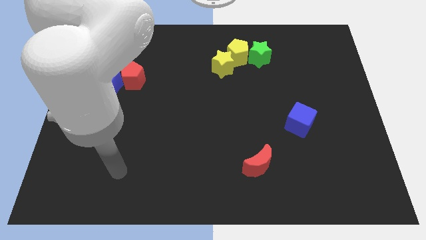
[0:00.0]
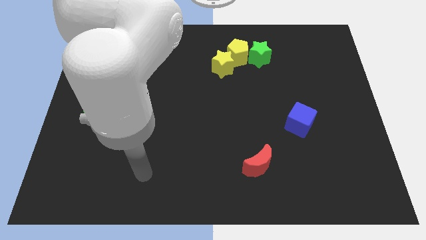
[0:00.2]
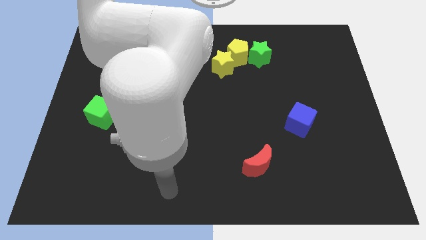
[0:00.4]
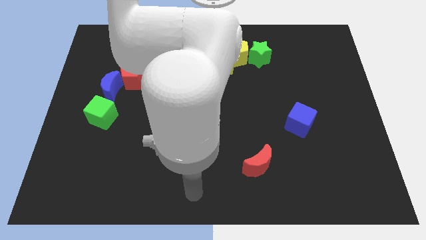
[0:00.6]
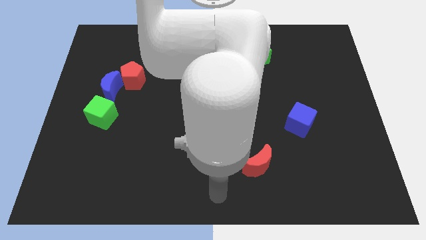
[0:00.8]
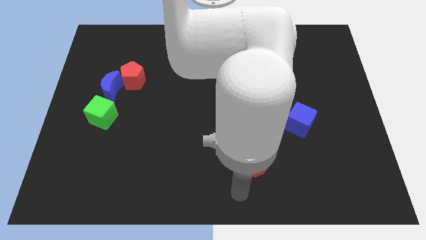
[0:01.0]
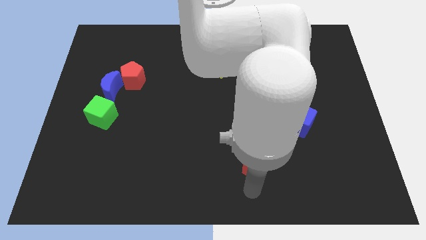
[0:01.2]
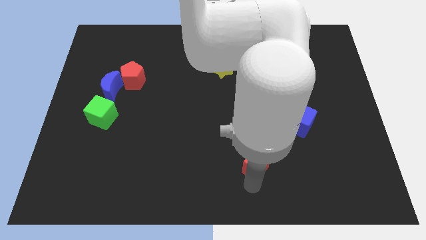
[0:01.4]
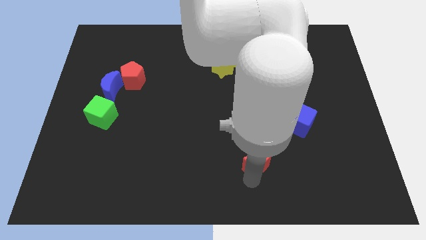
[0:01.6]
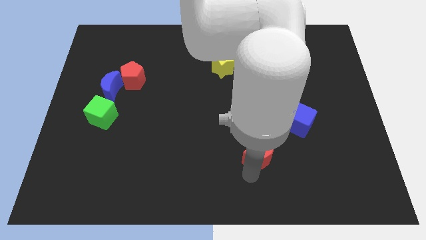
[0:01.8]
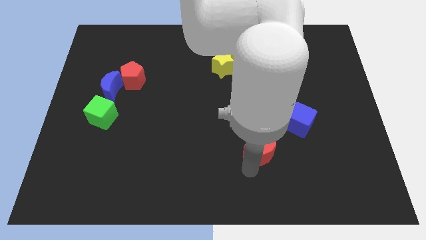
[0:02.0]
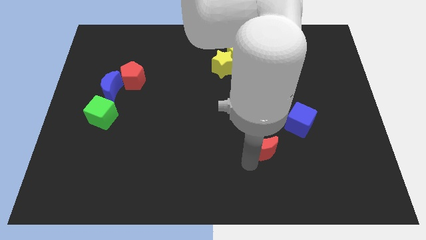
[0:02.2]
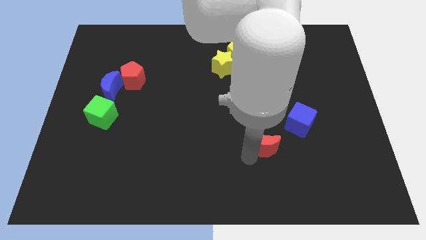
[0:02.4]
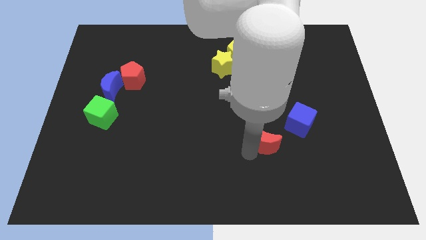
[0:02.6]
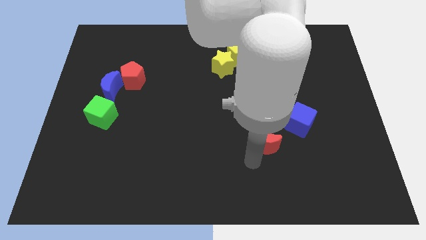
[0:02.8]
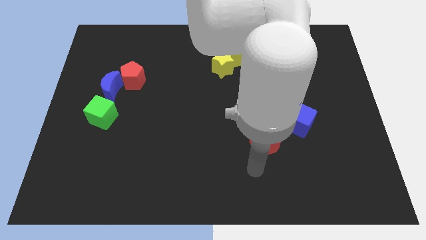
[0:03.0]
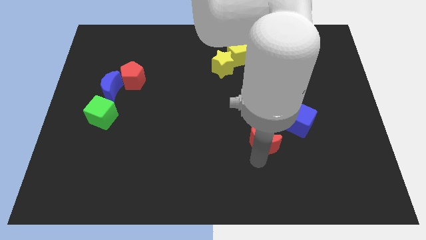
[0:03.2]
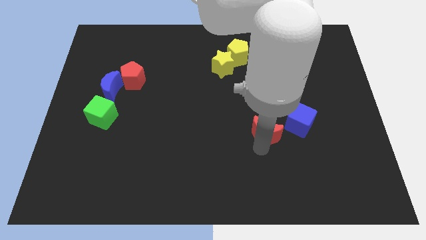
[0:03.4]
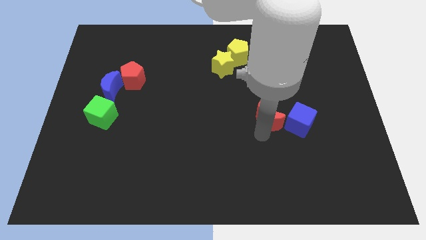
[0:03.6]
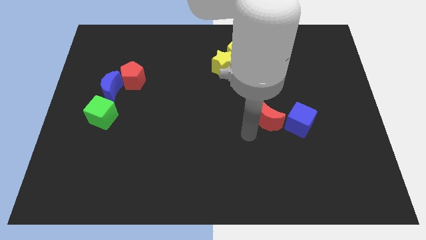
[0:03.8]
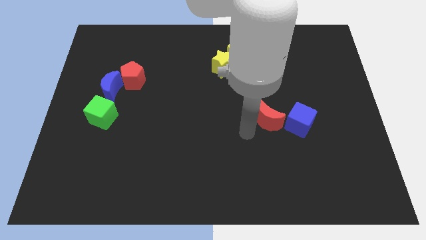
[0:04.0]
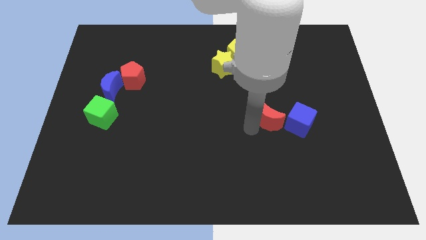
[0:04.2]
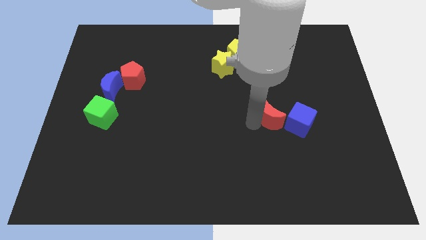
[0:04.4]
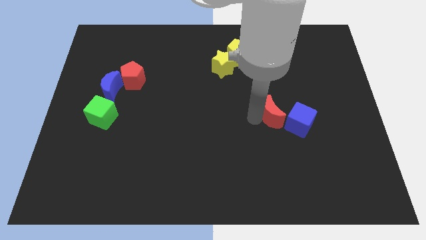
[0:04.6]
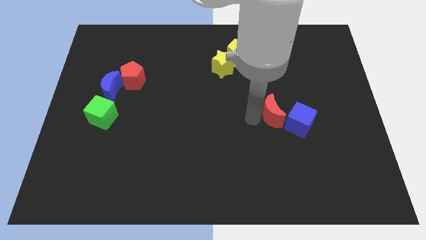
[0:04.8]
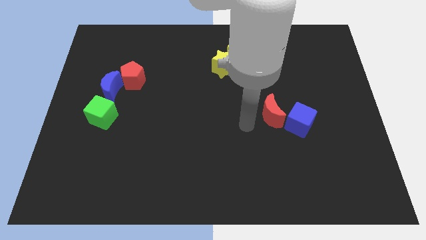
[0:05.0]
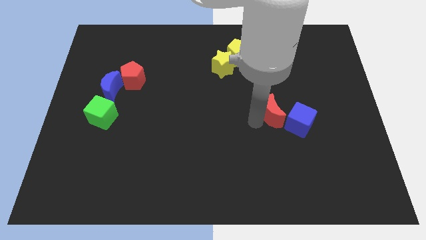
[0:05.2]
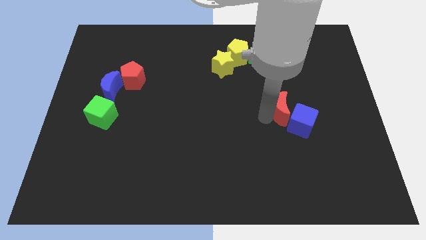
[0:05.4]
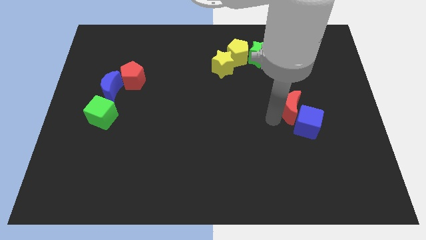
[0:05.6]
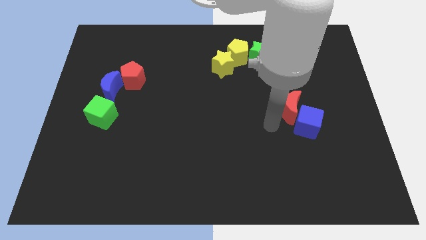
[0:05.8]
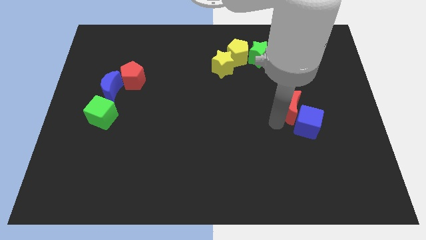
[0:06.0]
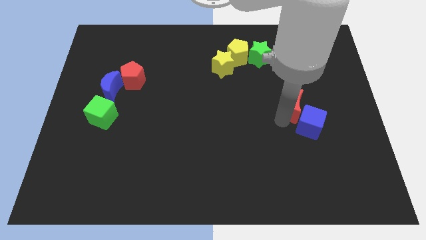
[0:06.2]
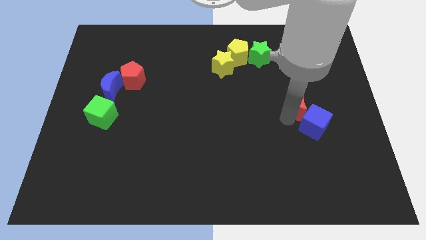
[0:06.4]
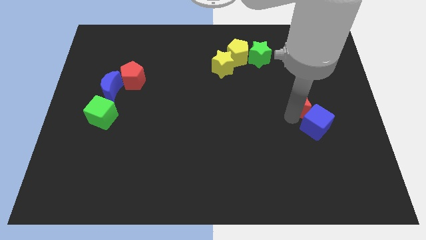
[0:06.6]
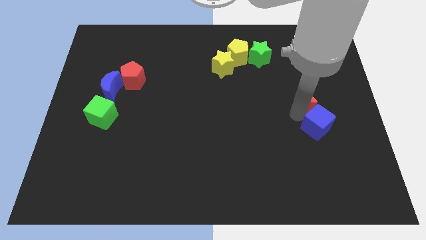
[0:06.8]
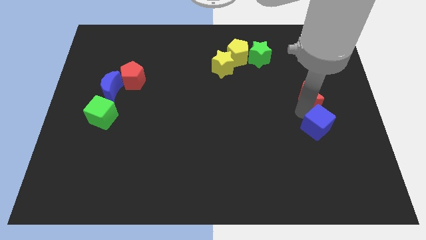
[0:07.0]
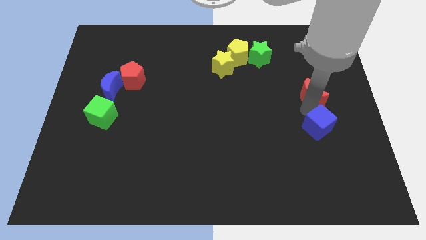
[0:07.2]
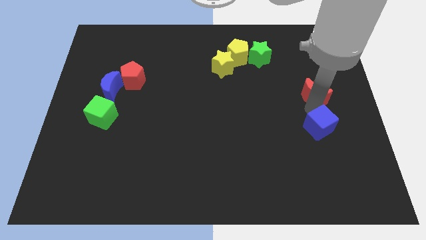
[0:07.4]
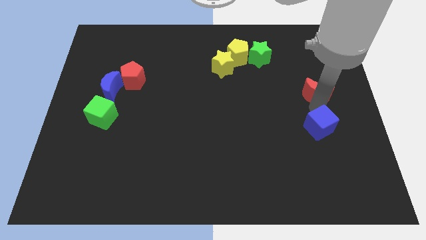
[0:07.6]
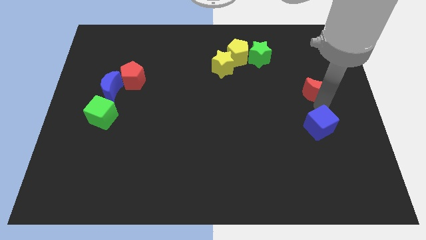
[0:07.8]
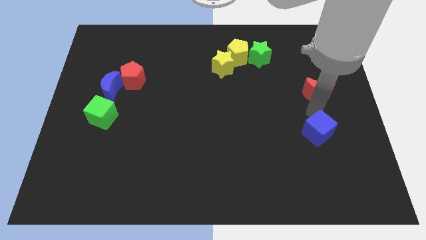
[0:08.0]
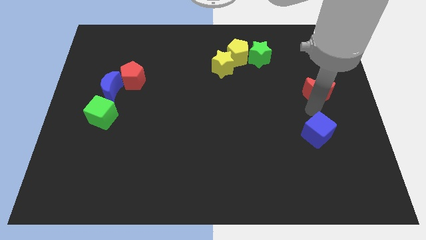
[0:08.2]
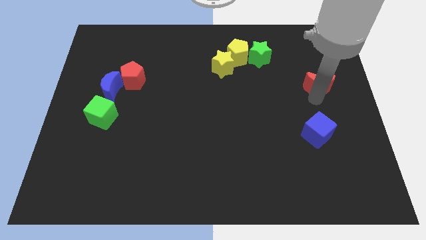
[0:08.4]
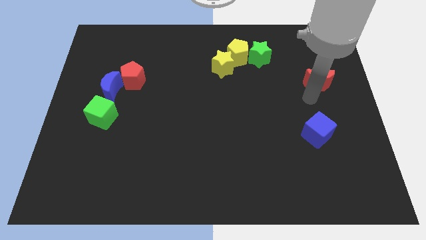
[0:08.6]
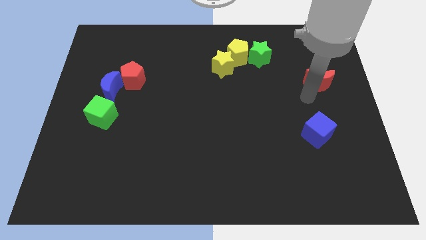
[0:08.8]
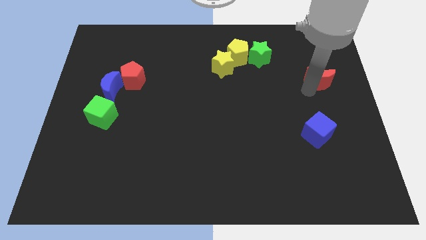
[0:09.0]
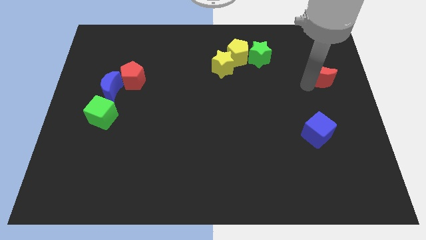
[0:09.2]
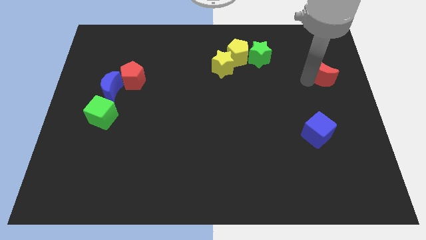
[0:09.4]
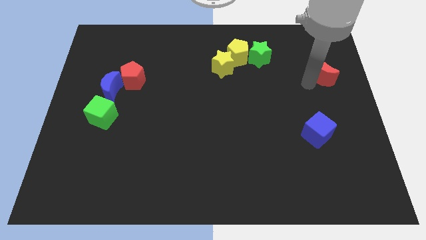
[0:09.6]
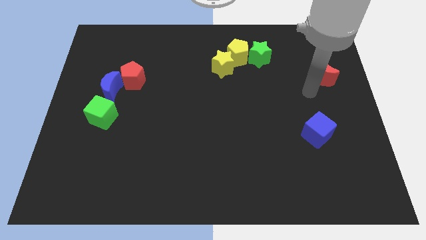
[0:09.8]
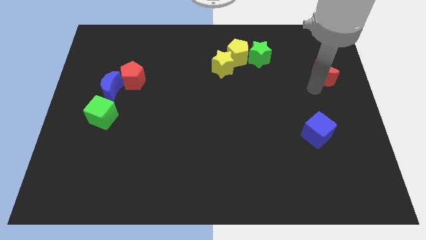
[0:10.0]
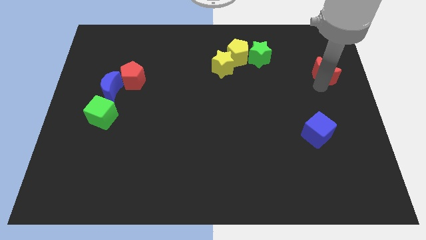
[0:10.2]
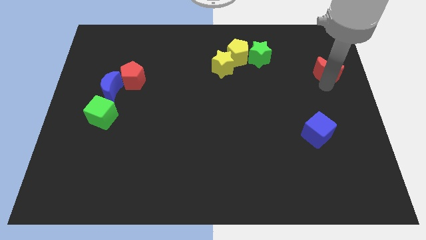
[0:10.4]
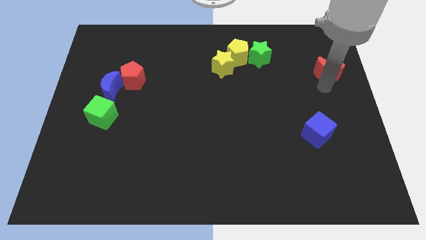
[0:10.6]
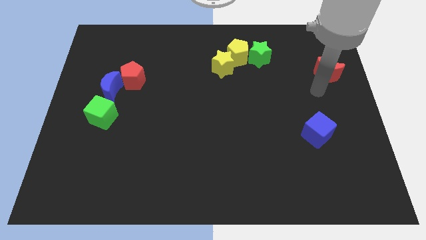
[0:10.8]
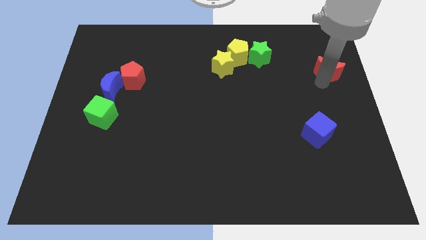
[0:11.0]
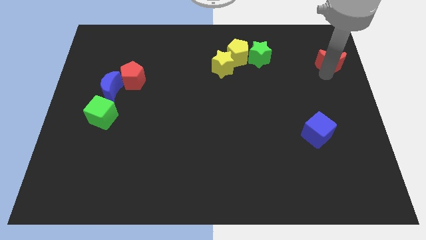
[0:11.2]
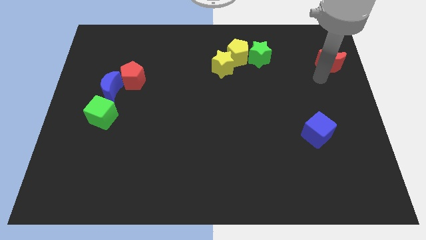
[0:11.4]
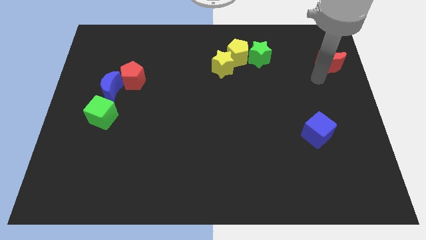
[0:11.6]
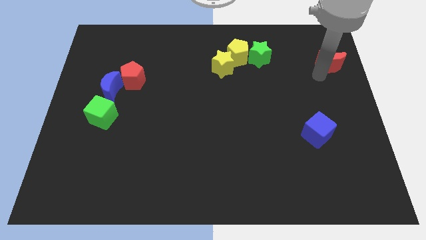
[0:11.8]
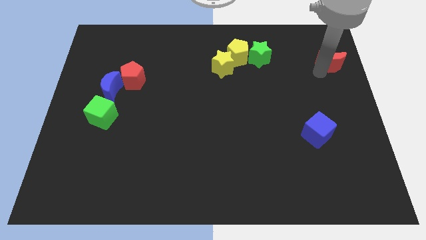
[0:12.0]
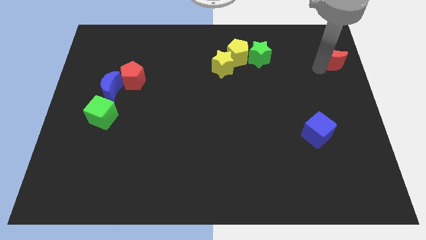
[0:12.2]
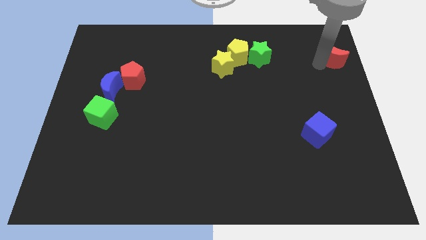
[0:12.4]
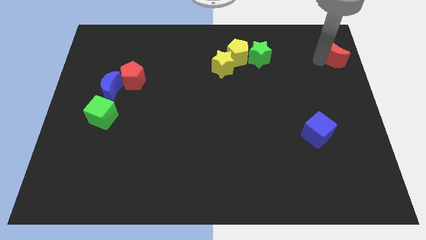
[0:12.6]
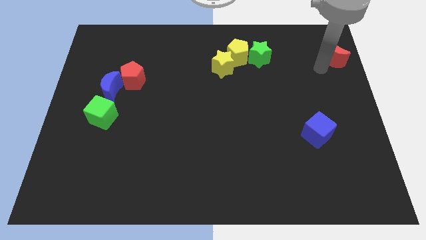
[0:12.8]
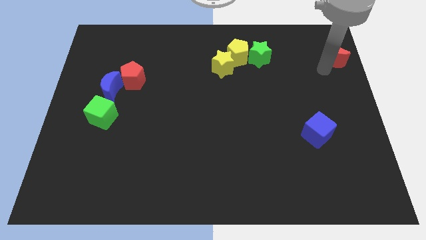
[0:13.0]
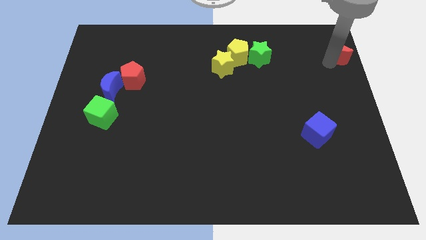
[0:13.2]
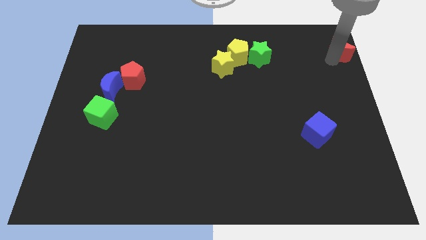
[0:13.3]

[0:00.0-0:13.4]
push the red moon to the top right
